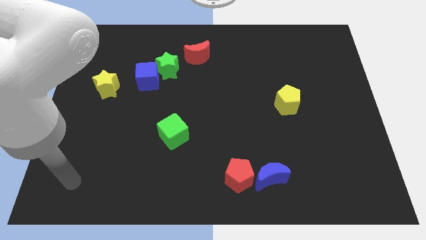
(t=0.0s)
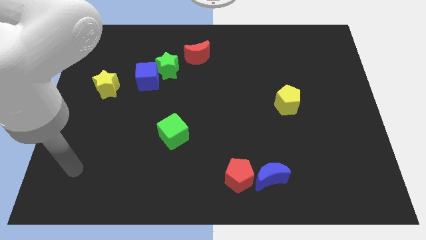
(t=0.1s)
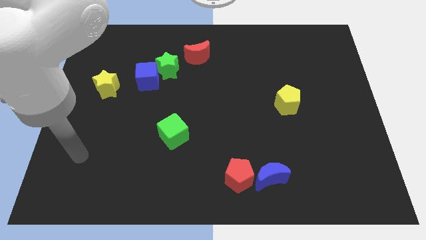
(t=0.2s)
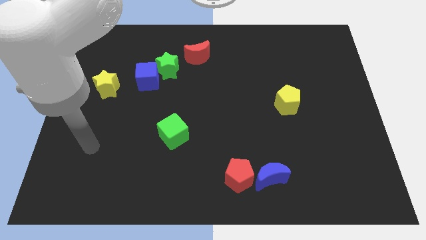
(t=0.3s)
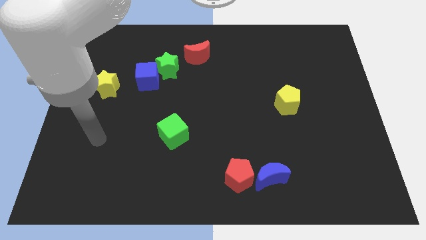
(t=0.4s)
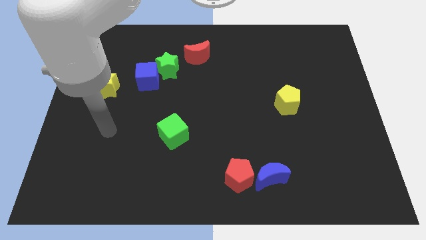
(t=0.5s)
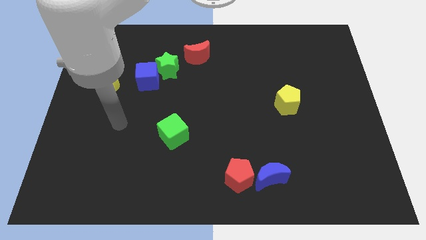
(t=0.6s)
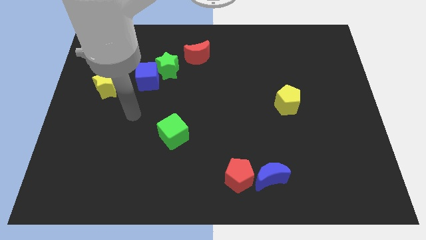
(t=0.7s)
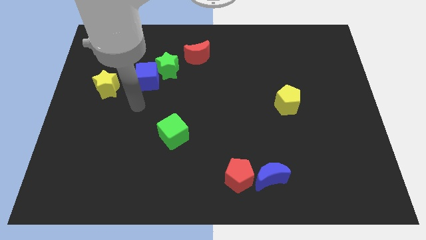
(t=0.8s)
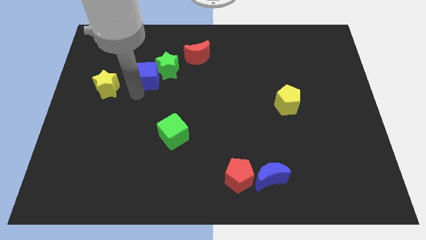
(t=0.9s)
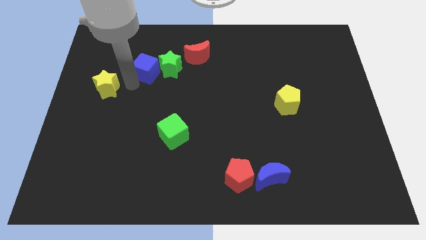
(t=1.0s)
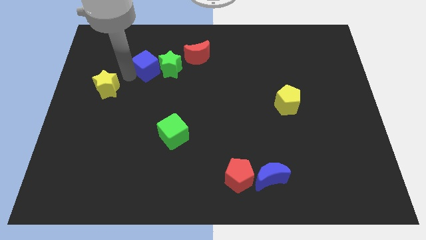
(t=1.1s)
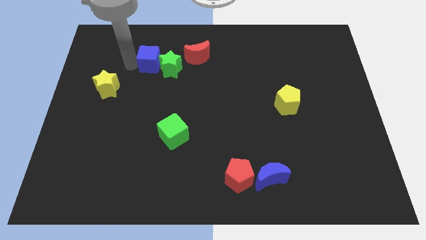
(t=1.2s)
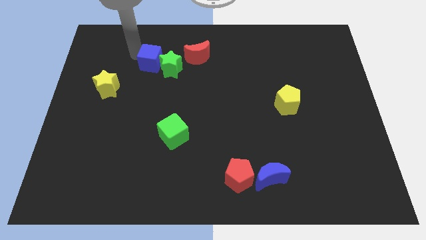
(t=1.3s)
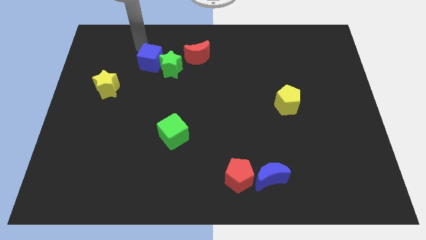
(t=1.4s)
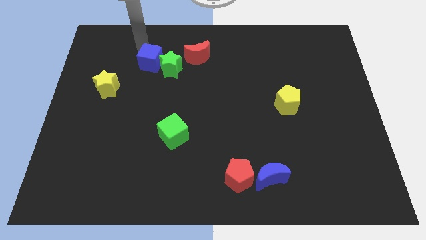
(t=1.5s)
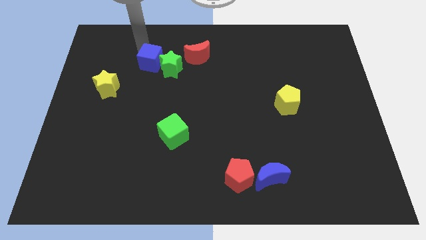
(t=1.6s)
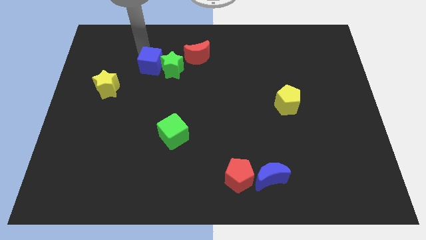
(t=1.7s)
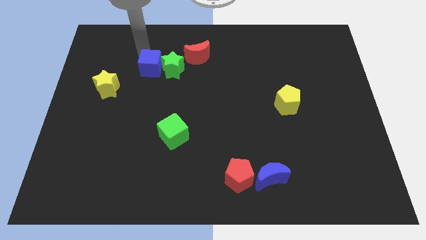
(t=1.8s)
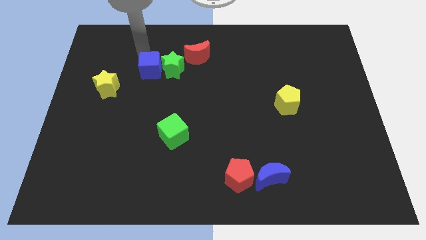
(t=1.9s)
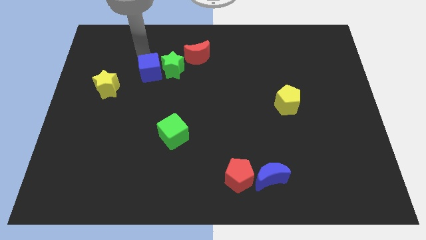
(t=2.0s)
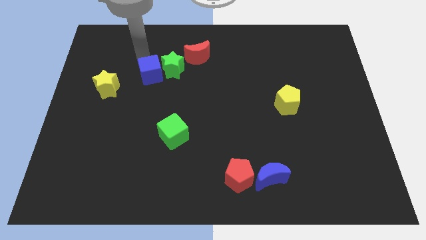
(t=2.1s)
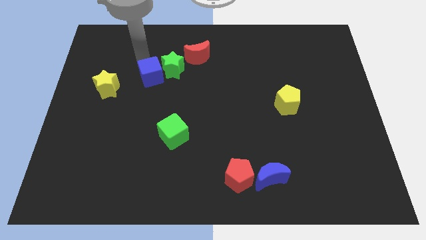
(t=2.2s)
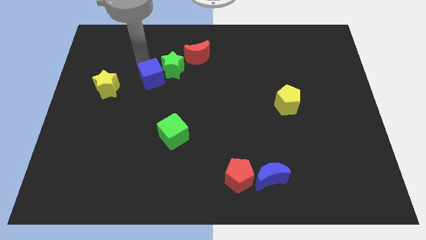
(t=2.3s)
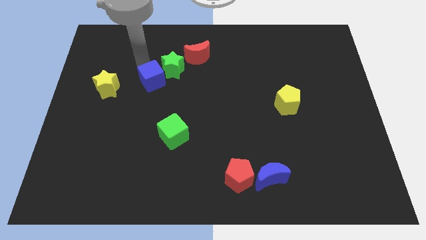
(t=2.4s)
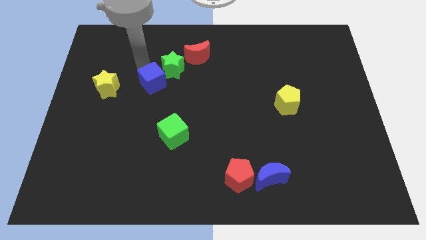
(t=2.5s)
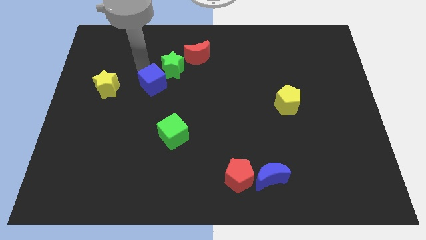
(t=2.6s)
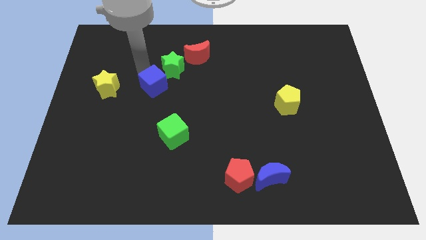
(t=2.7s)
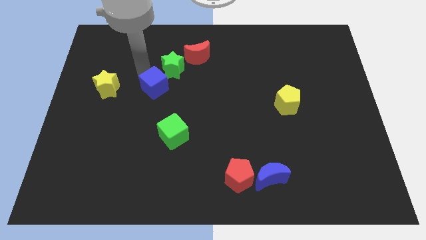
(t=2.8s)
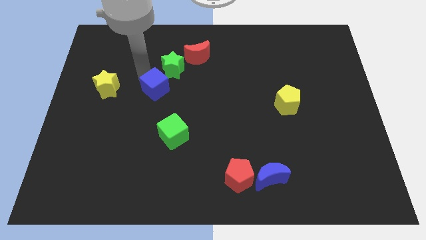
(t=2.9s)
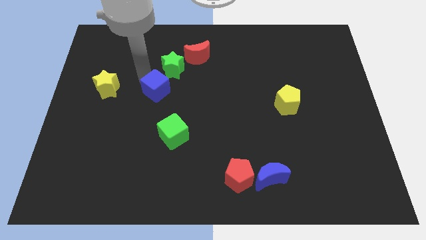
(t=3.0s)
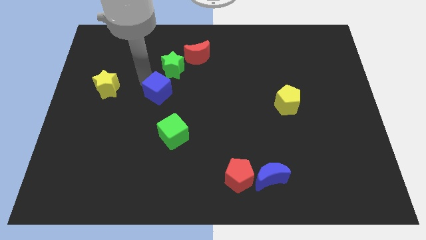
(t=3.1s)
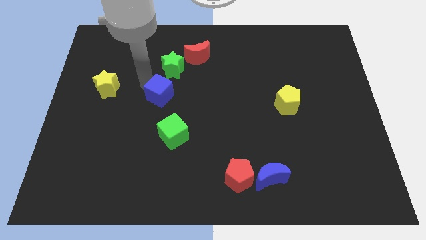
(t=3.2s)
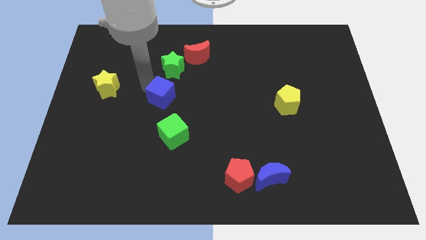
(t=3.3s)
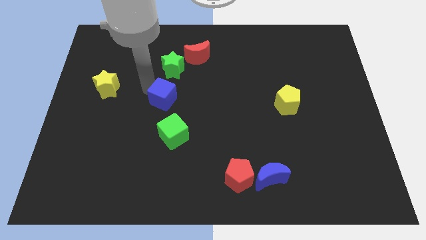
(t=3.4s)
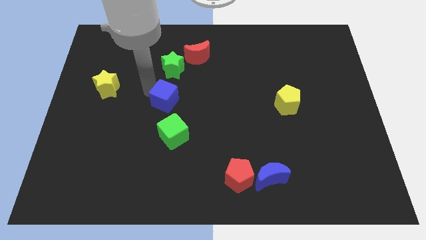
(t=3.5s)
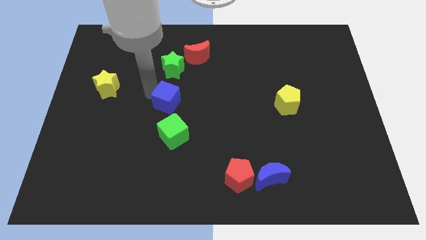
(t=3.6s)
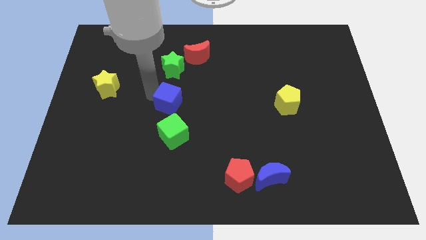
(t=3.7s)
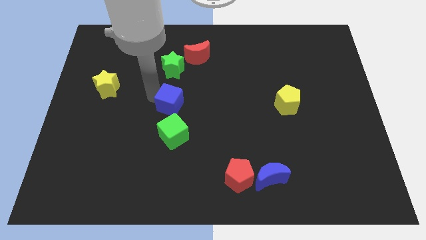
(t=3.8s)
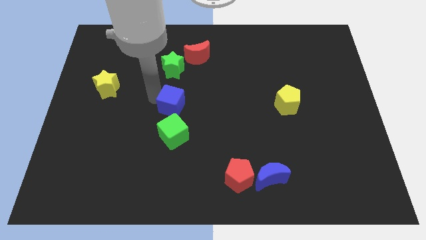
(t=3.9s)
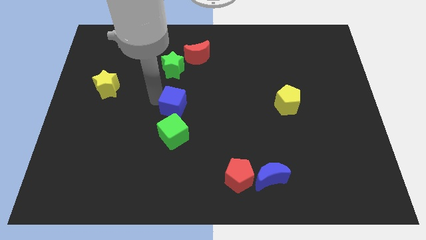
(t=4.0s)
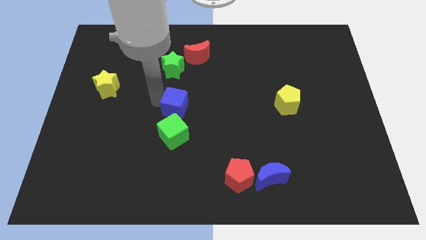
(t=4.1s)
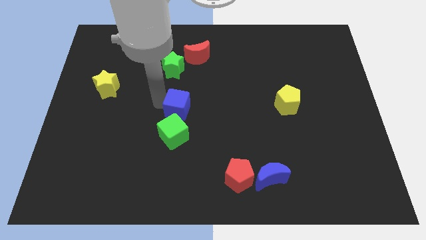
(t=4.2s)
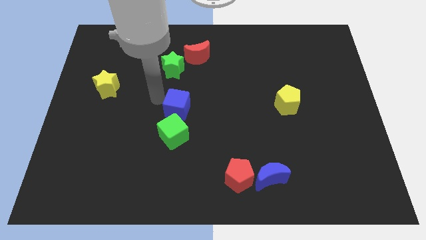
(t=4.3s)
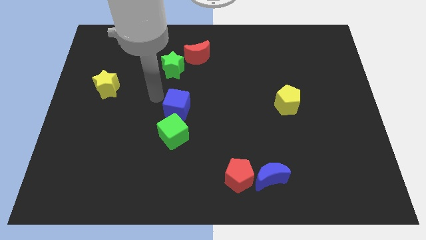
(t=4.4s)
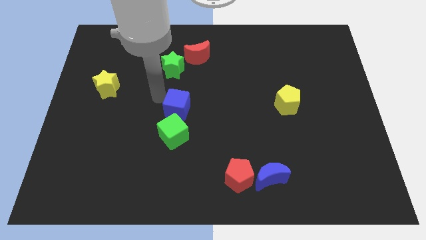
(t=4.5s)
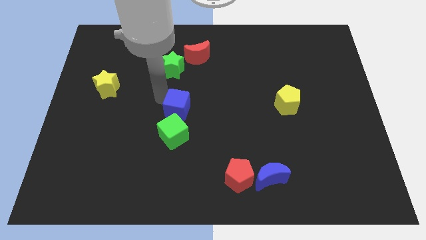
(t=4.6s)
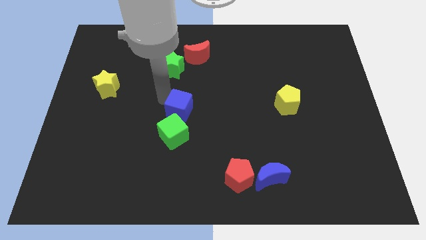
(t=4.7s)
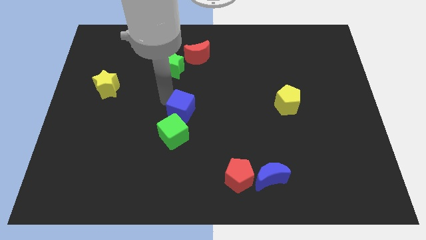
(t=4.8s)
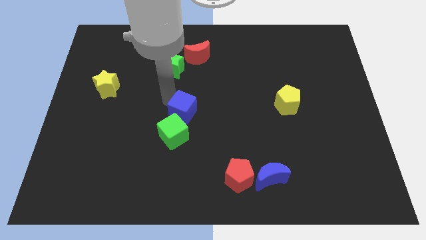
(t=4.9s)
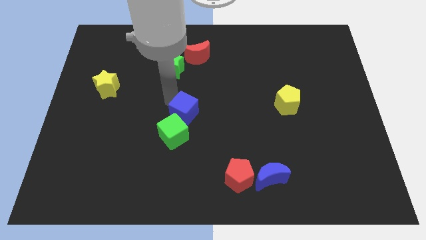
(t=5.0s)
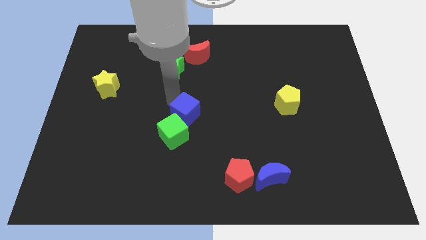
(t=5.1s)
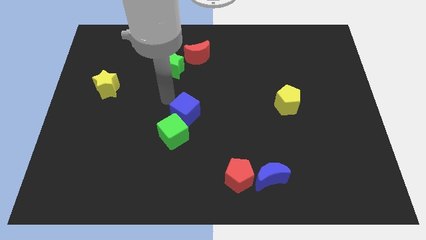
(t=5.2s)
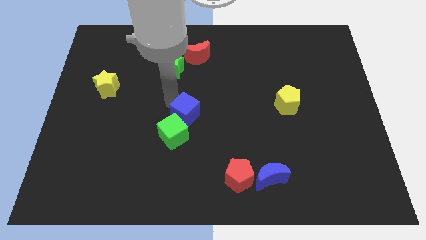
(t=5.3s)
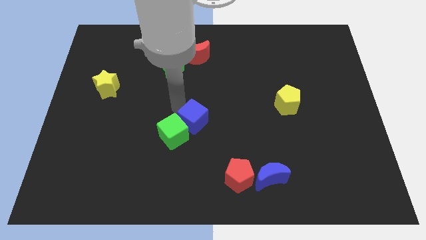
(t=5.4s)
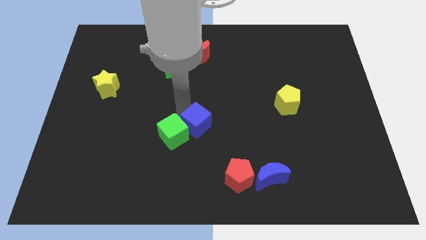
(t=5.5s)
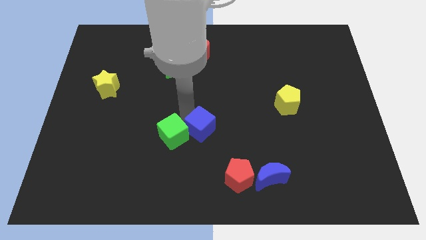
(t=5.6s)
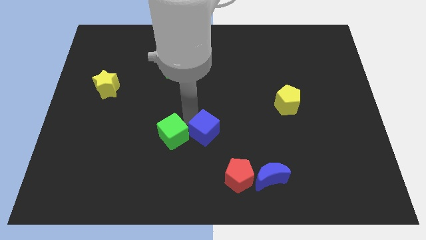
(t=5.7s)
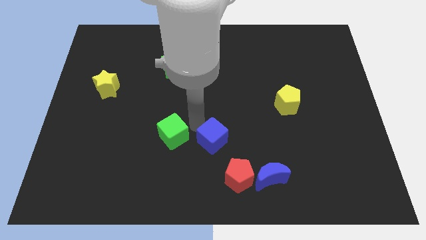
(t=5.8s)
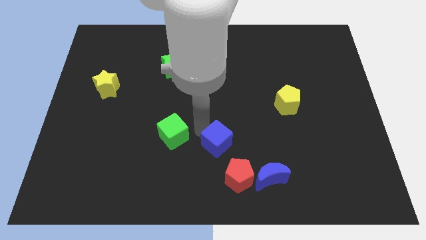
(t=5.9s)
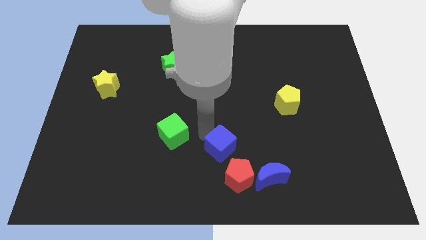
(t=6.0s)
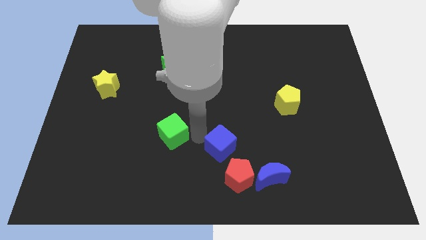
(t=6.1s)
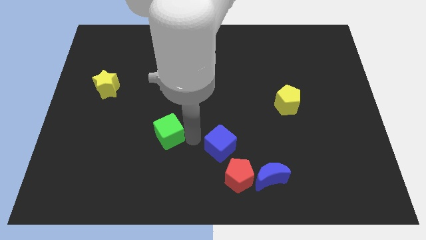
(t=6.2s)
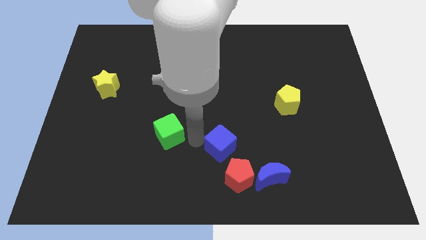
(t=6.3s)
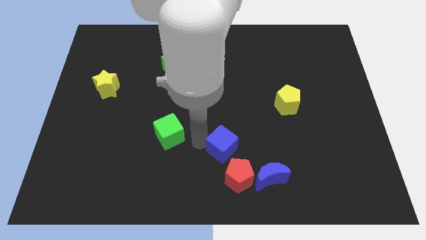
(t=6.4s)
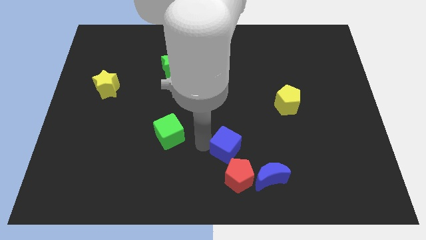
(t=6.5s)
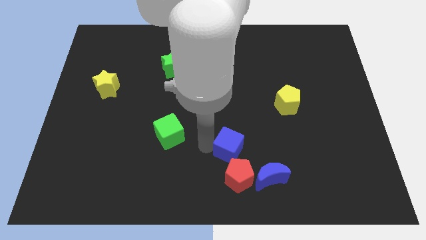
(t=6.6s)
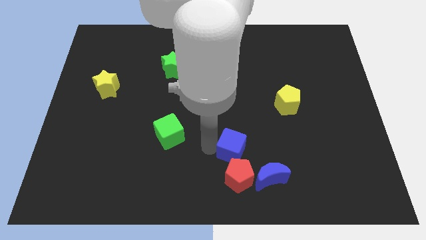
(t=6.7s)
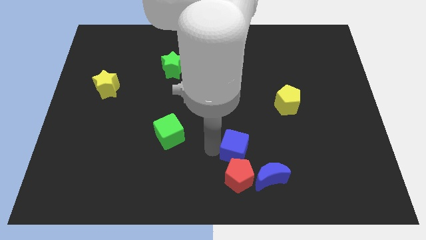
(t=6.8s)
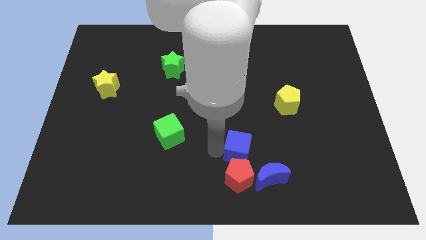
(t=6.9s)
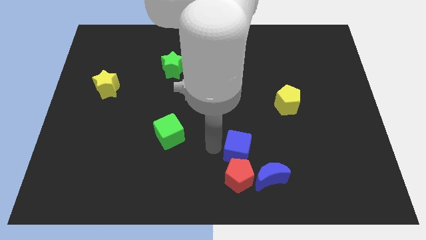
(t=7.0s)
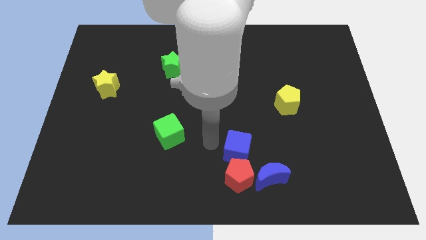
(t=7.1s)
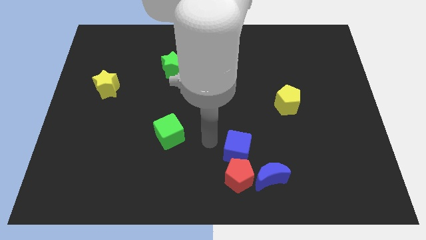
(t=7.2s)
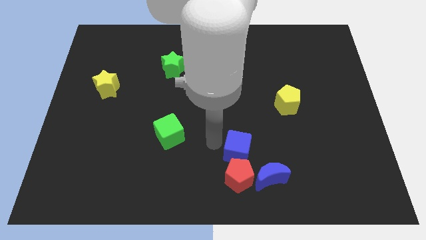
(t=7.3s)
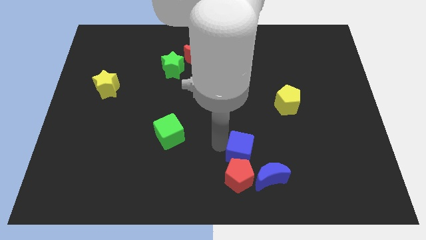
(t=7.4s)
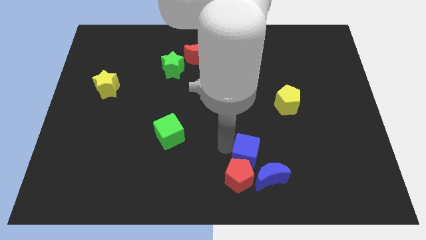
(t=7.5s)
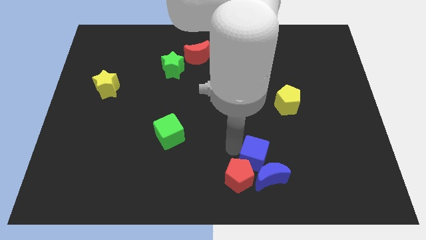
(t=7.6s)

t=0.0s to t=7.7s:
push the blue cube to the blue moon

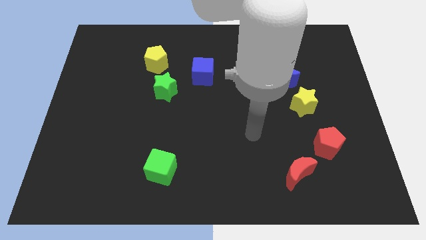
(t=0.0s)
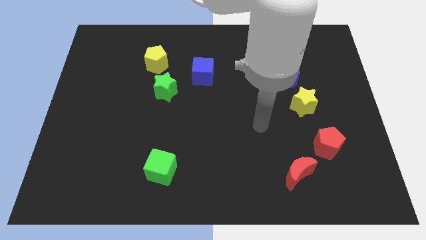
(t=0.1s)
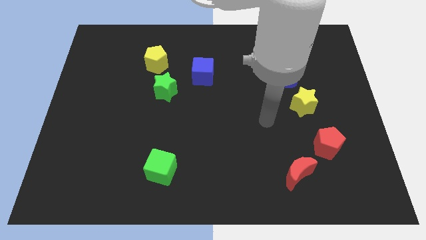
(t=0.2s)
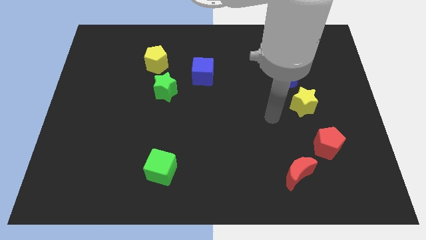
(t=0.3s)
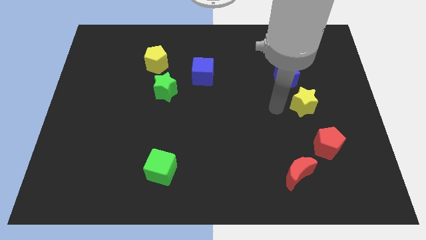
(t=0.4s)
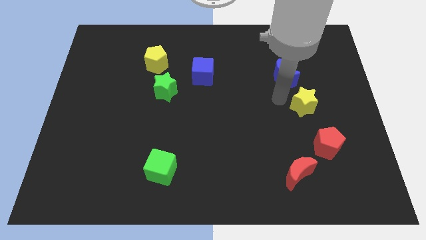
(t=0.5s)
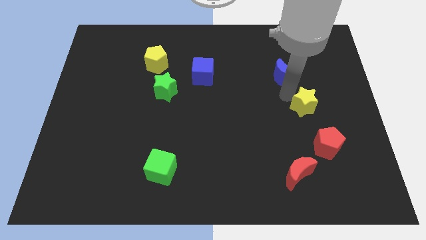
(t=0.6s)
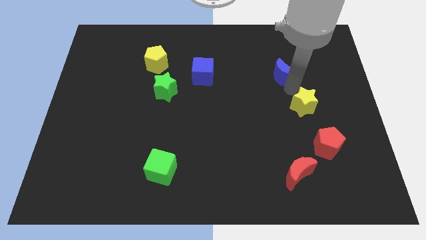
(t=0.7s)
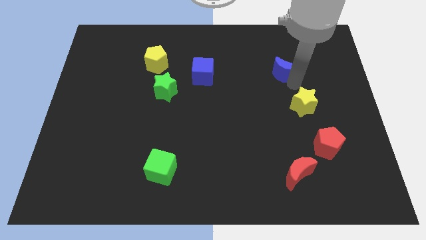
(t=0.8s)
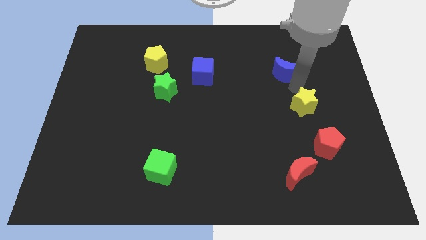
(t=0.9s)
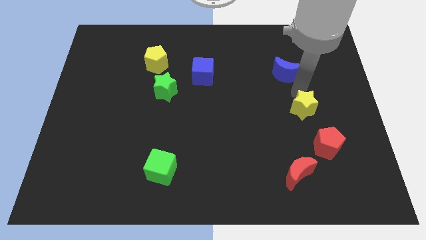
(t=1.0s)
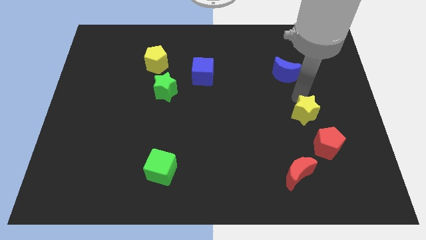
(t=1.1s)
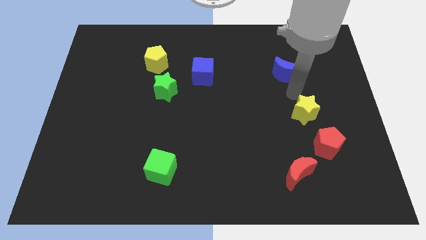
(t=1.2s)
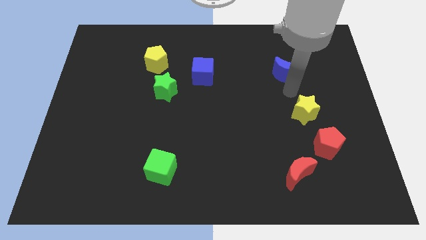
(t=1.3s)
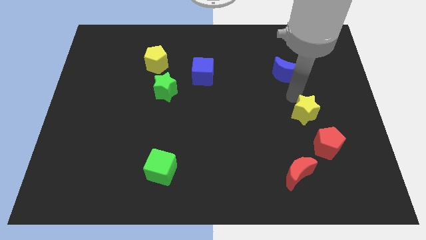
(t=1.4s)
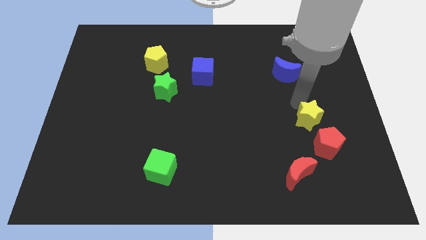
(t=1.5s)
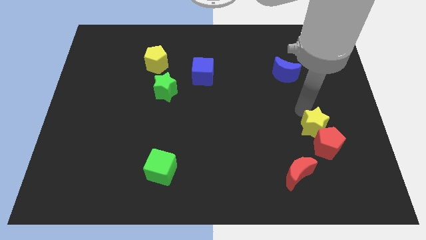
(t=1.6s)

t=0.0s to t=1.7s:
put the yellow star close to the red pentagon
